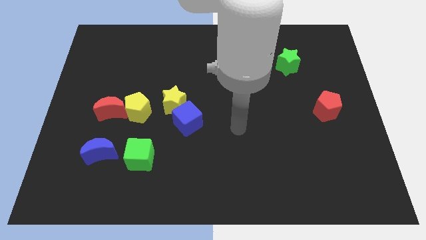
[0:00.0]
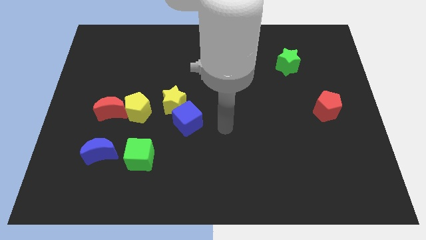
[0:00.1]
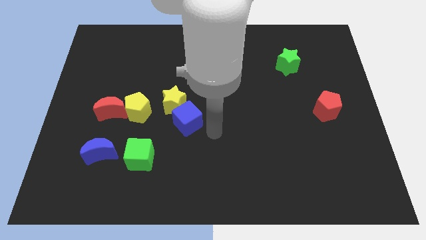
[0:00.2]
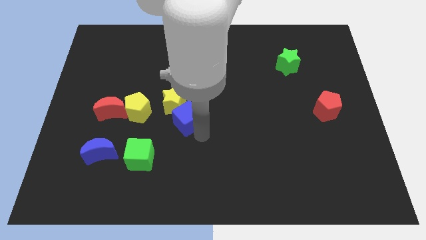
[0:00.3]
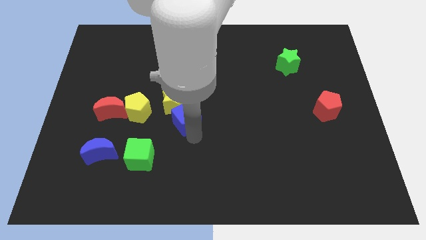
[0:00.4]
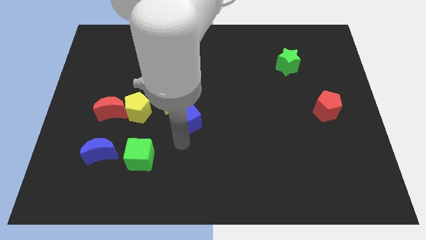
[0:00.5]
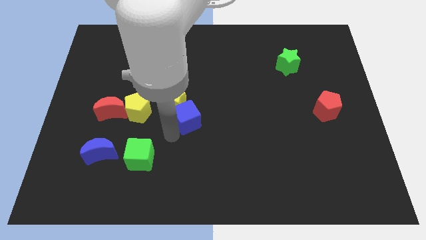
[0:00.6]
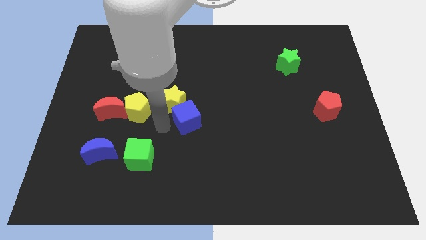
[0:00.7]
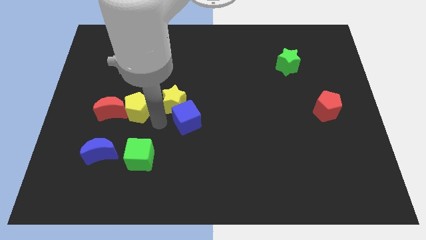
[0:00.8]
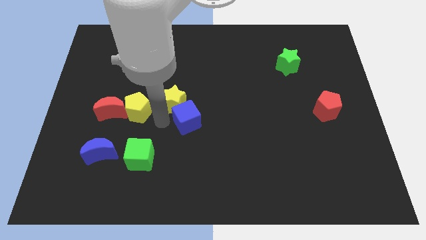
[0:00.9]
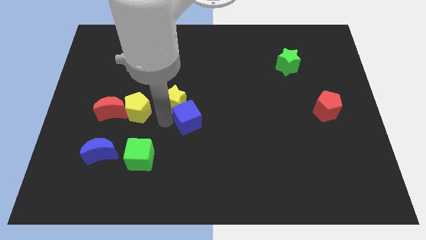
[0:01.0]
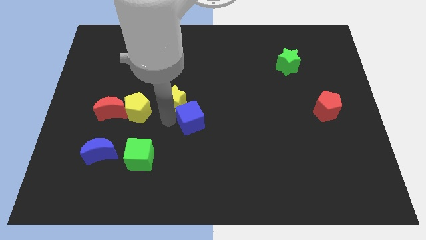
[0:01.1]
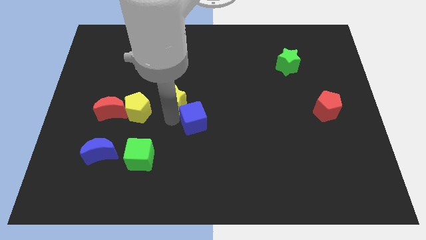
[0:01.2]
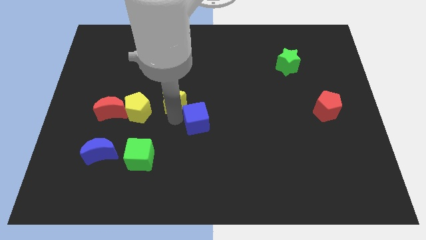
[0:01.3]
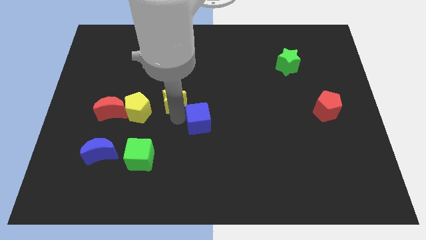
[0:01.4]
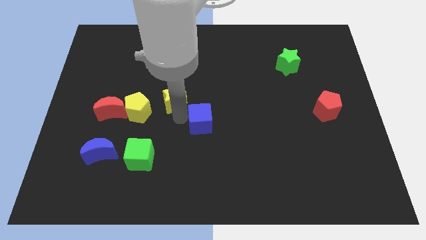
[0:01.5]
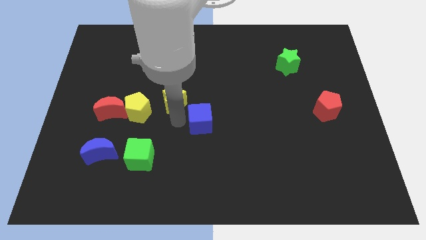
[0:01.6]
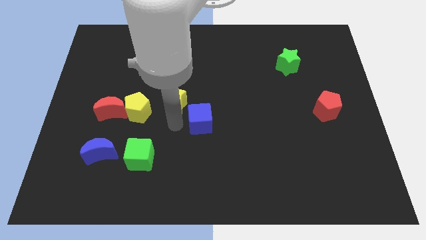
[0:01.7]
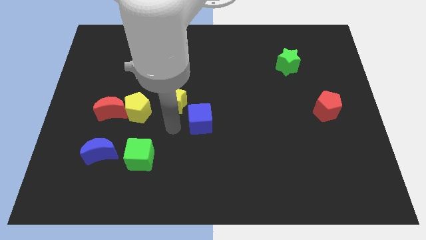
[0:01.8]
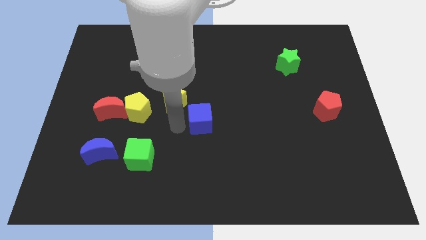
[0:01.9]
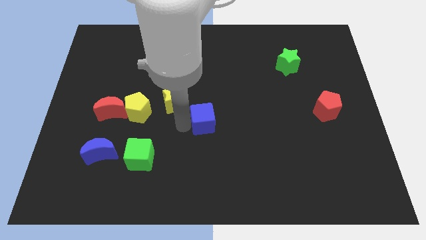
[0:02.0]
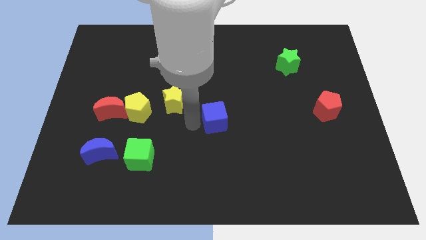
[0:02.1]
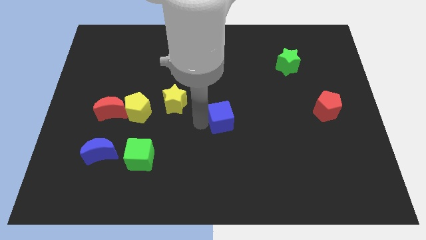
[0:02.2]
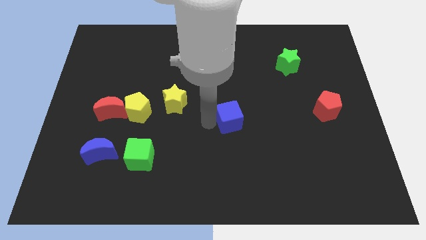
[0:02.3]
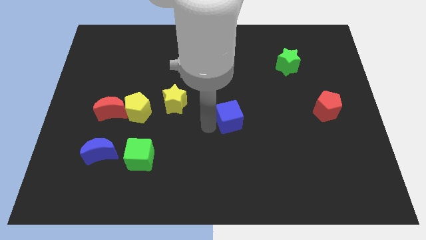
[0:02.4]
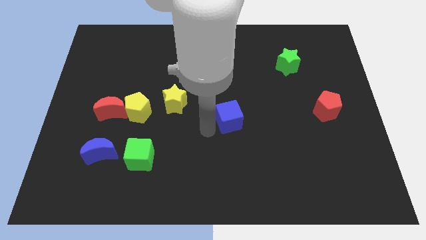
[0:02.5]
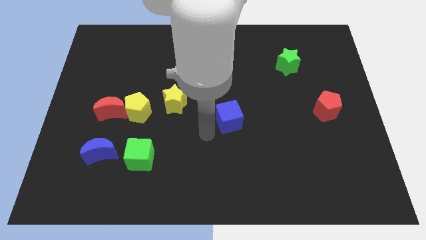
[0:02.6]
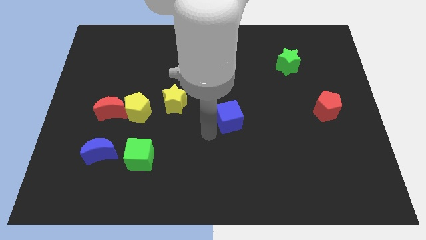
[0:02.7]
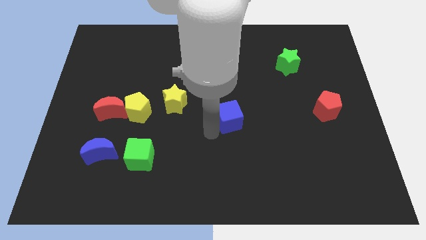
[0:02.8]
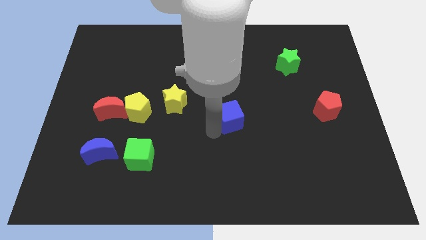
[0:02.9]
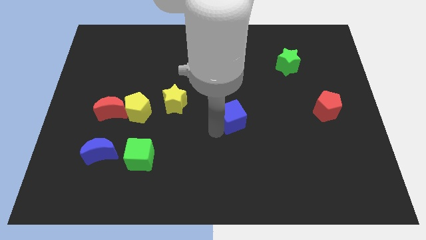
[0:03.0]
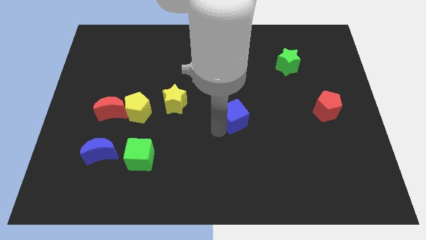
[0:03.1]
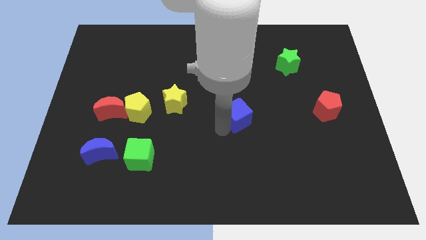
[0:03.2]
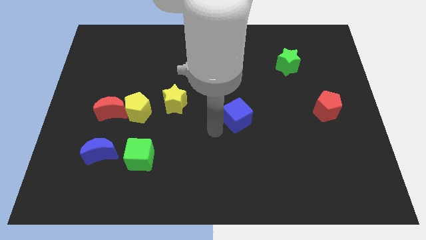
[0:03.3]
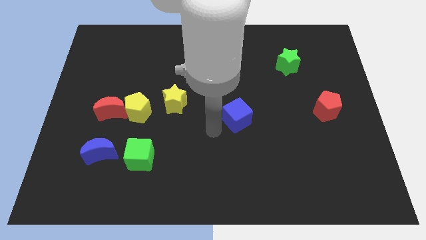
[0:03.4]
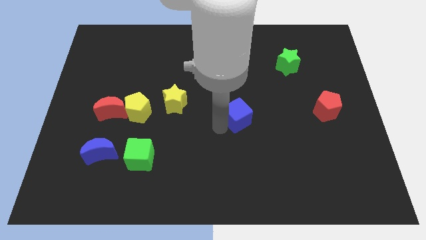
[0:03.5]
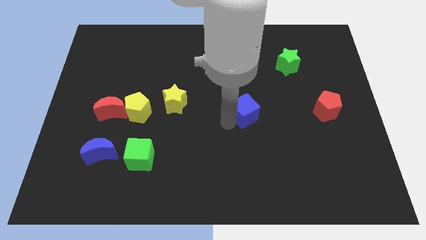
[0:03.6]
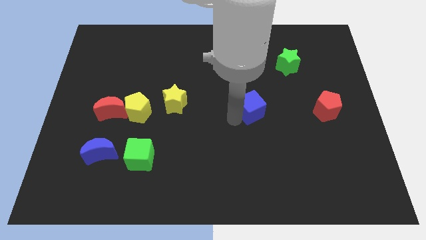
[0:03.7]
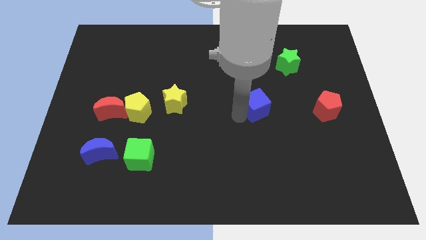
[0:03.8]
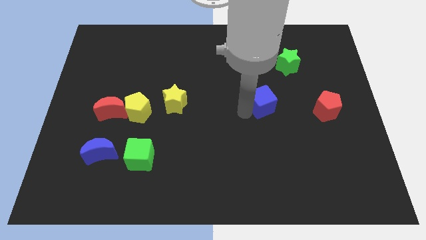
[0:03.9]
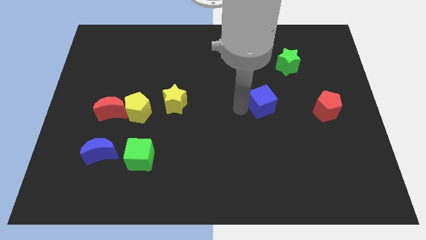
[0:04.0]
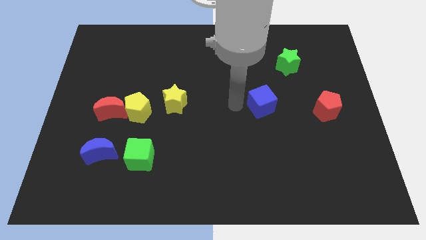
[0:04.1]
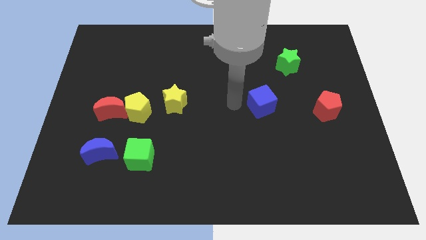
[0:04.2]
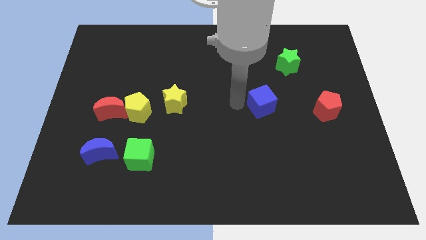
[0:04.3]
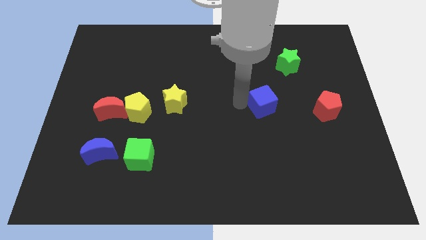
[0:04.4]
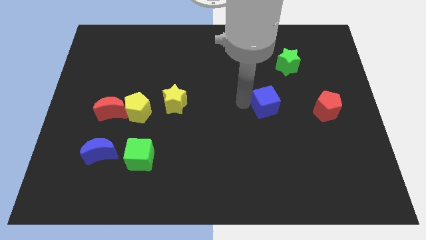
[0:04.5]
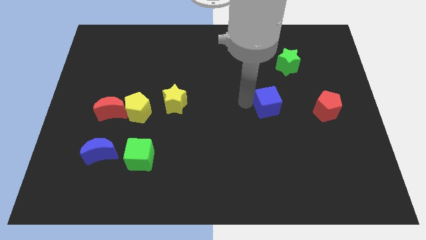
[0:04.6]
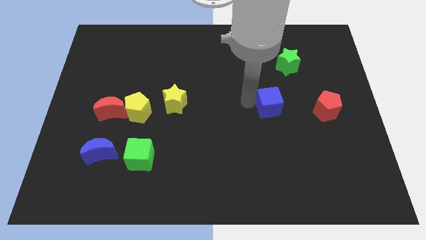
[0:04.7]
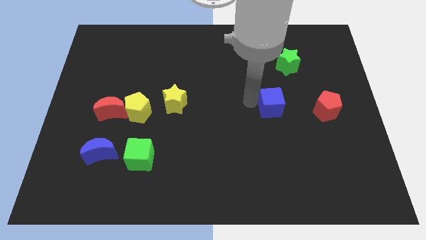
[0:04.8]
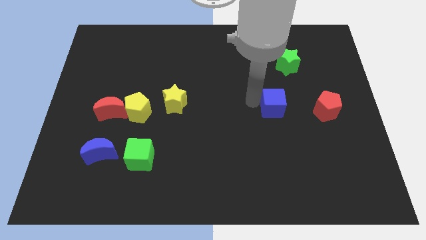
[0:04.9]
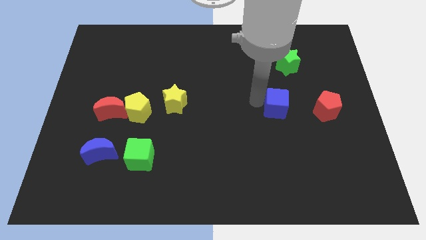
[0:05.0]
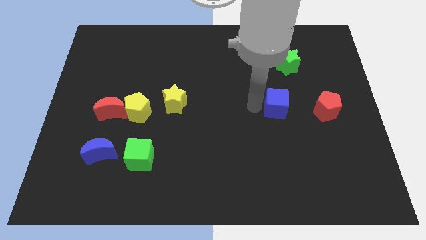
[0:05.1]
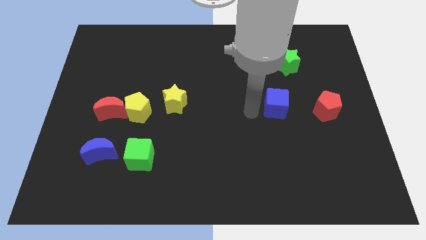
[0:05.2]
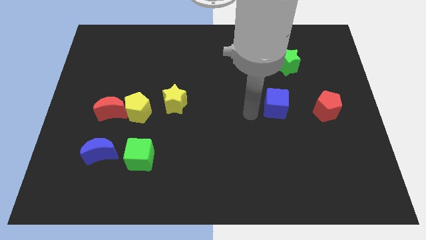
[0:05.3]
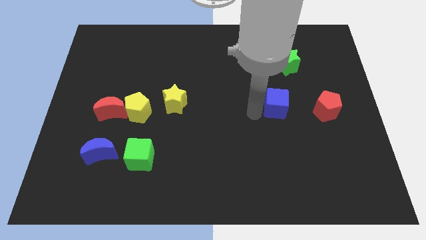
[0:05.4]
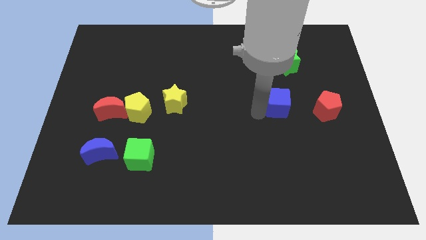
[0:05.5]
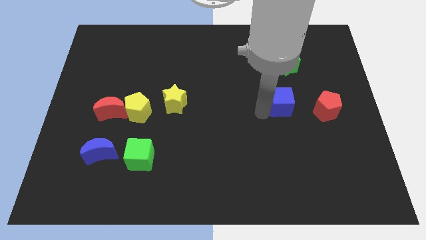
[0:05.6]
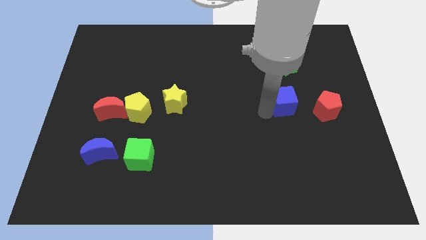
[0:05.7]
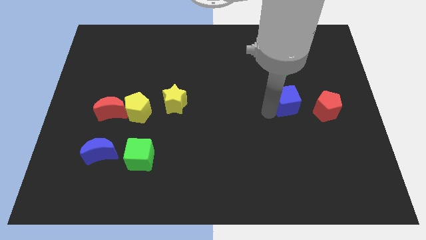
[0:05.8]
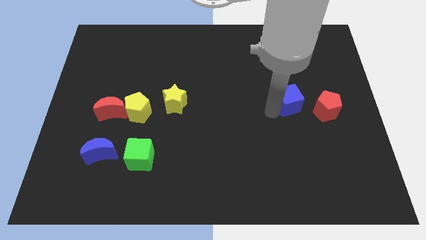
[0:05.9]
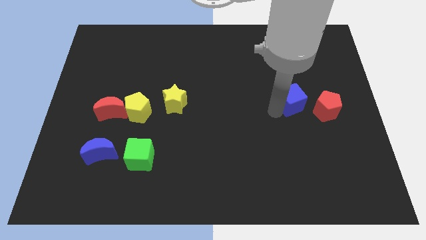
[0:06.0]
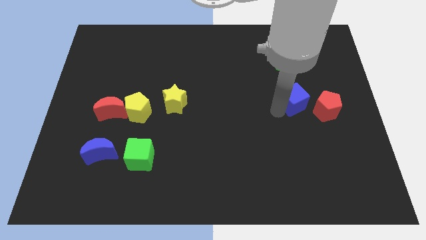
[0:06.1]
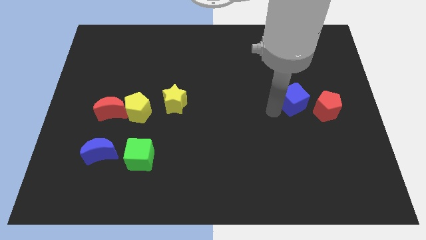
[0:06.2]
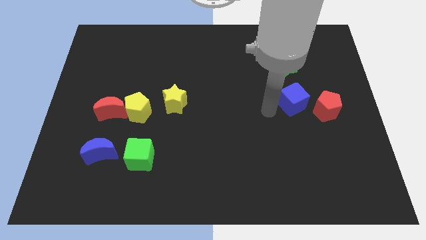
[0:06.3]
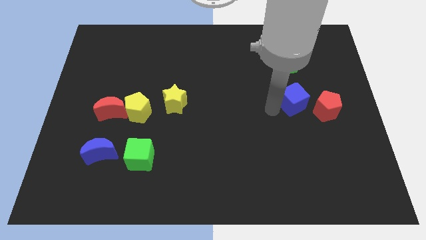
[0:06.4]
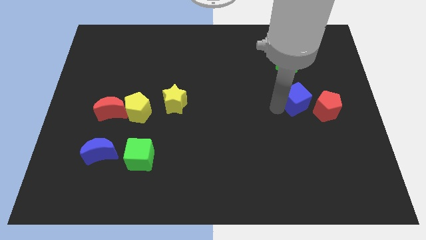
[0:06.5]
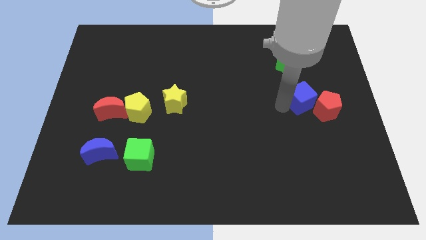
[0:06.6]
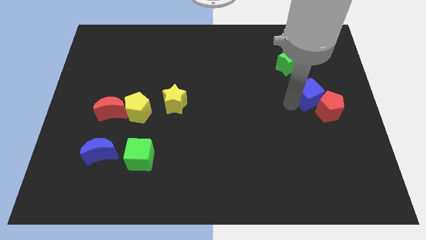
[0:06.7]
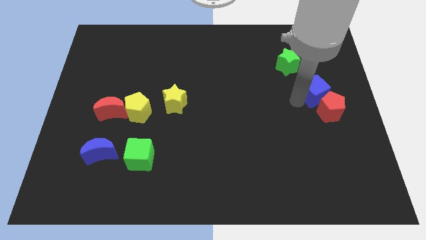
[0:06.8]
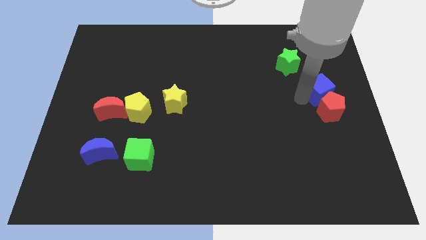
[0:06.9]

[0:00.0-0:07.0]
put the blue cube to the right side
